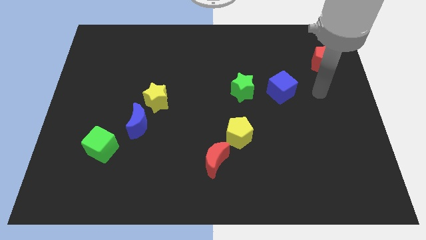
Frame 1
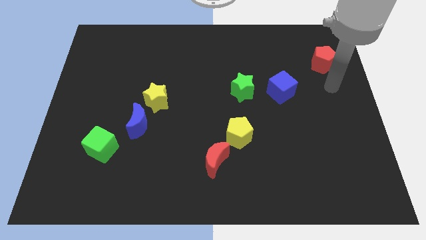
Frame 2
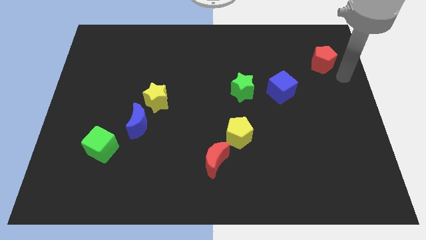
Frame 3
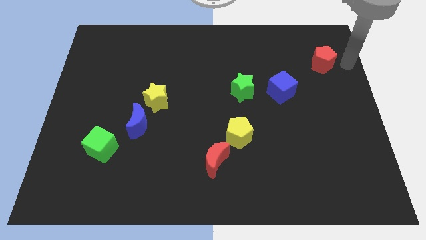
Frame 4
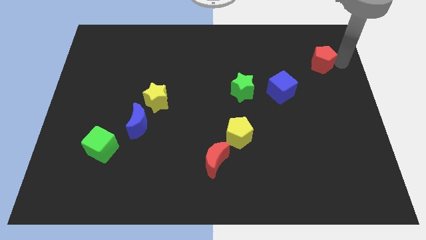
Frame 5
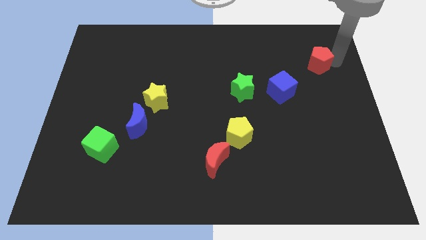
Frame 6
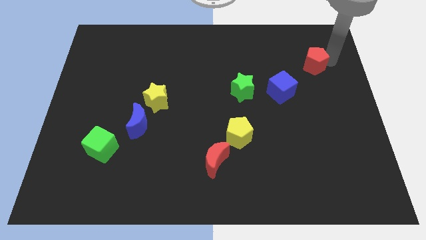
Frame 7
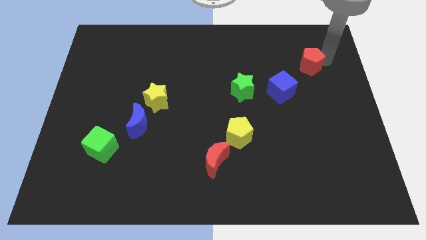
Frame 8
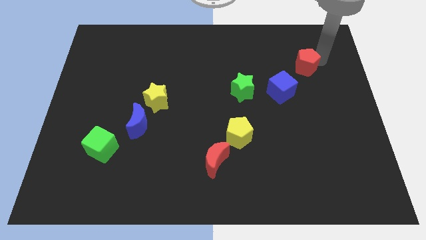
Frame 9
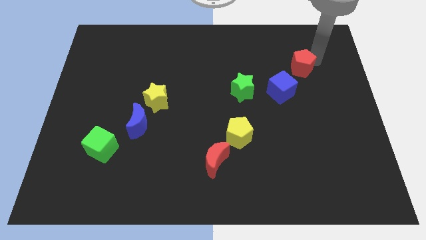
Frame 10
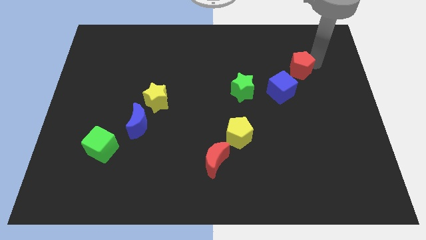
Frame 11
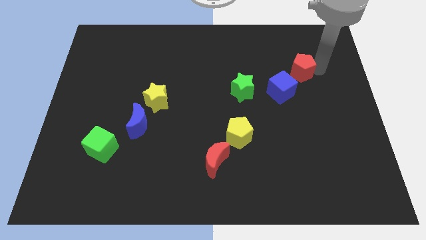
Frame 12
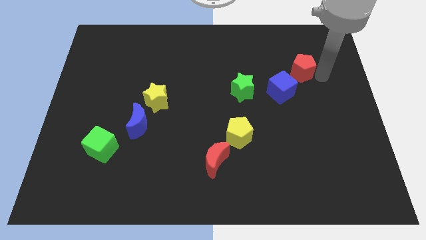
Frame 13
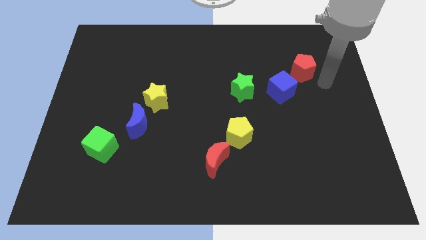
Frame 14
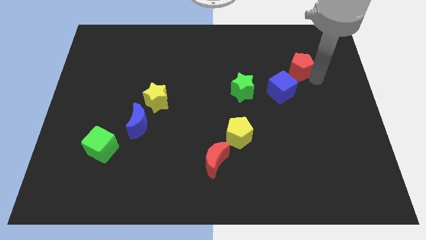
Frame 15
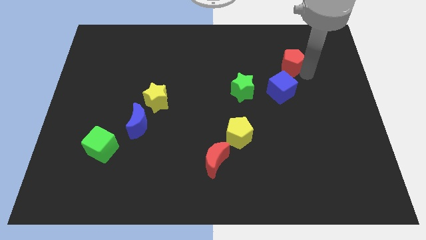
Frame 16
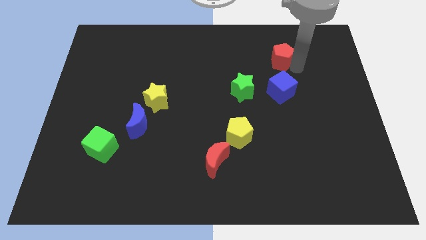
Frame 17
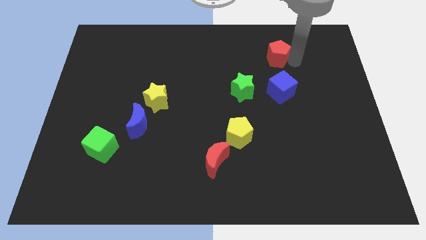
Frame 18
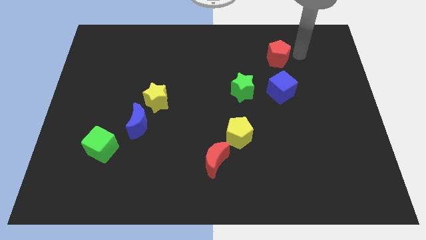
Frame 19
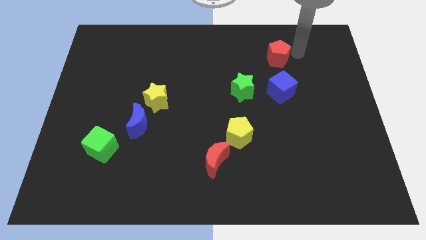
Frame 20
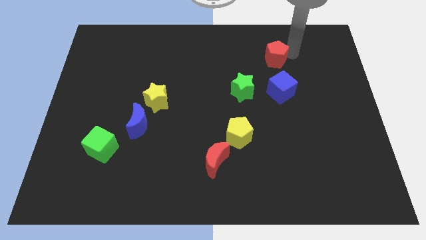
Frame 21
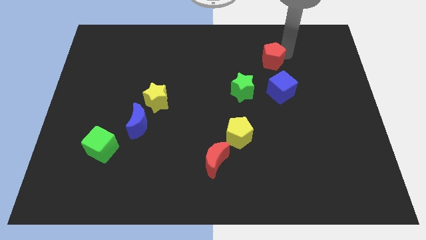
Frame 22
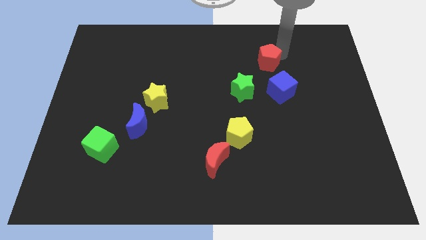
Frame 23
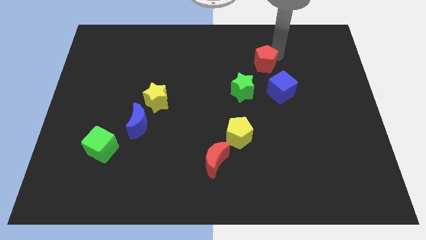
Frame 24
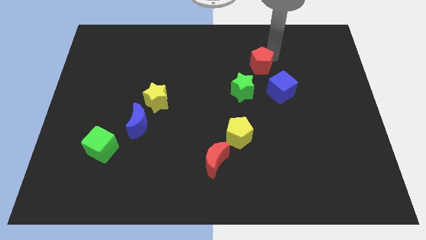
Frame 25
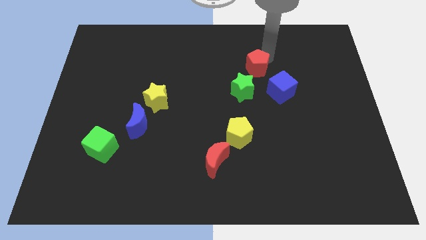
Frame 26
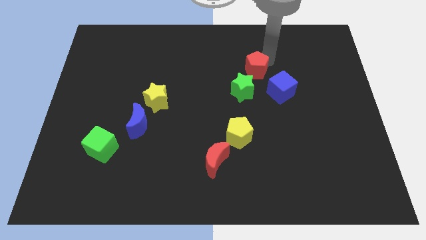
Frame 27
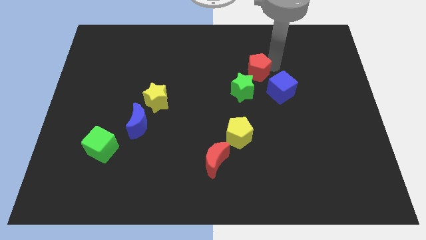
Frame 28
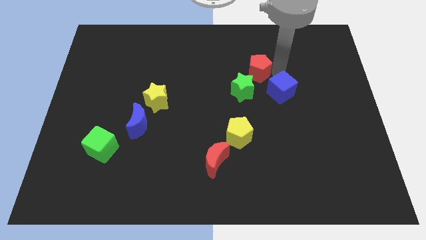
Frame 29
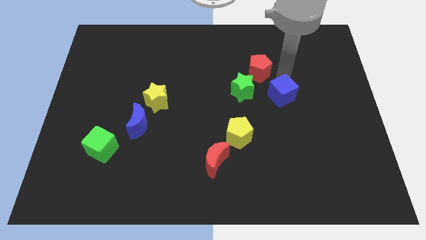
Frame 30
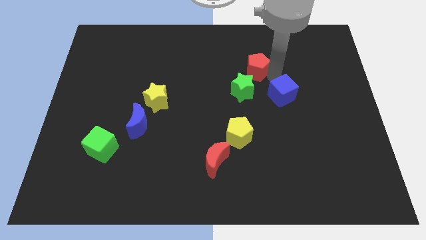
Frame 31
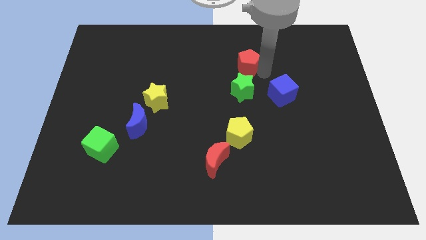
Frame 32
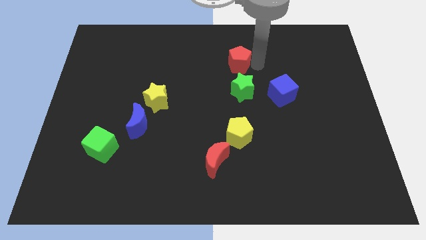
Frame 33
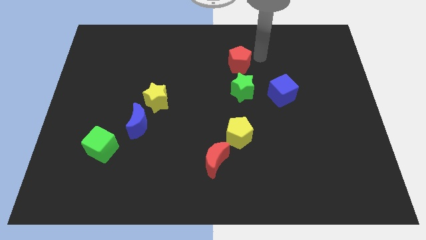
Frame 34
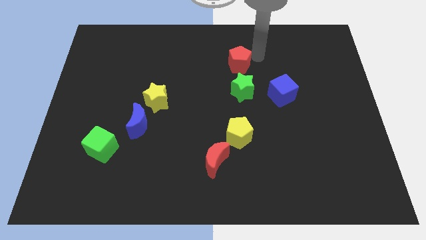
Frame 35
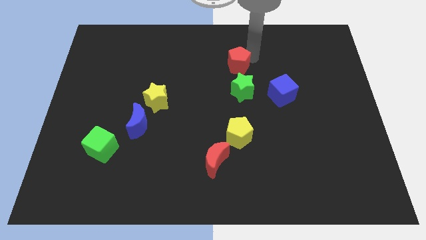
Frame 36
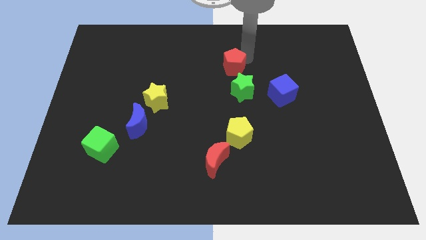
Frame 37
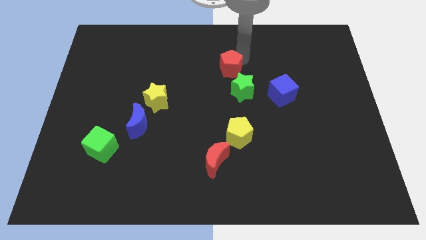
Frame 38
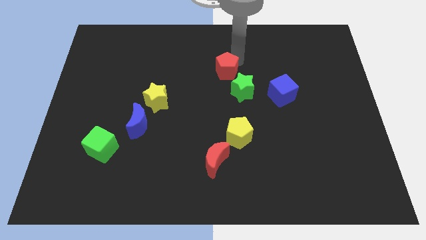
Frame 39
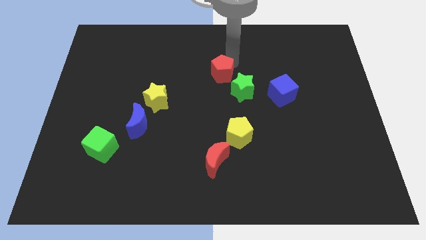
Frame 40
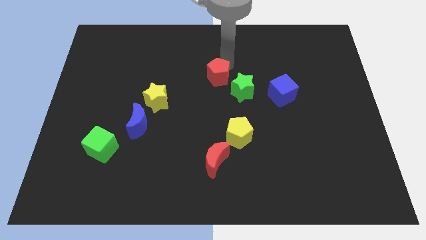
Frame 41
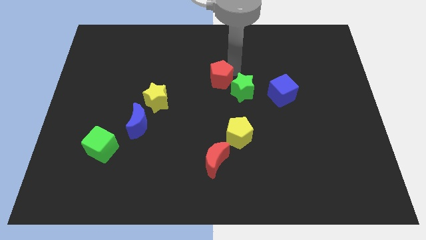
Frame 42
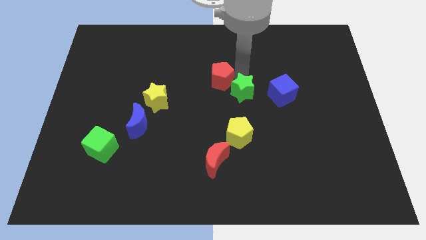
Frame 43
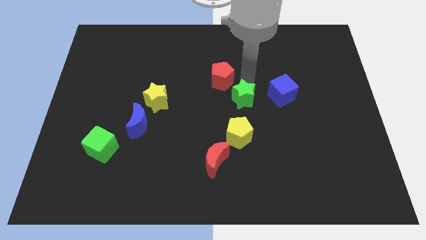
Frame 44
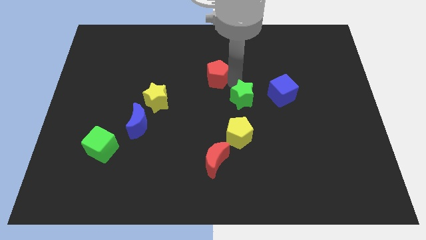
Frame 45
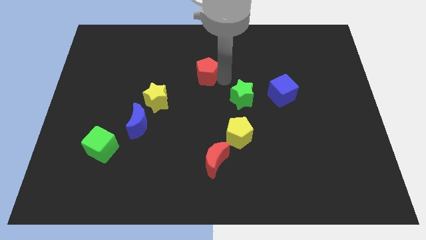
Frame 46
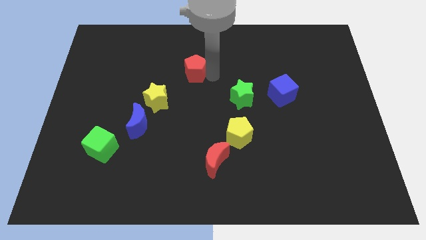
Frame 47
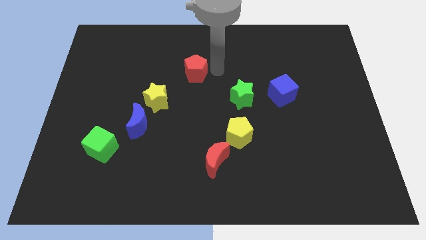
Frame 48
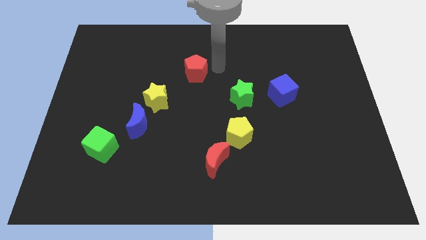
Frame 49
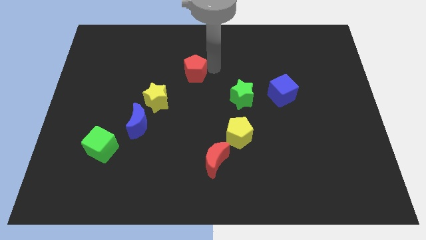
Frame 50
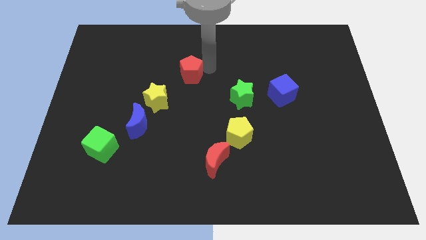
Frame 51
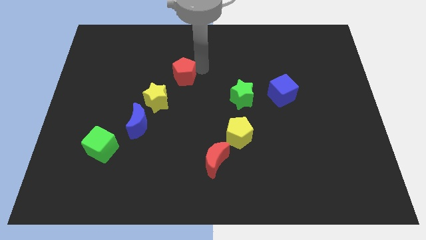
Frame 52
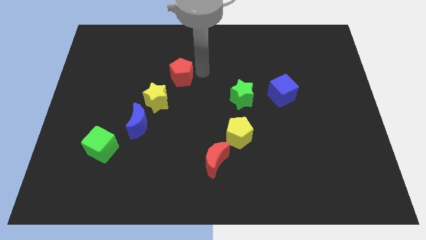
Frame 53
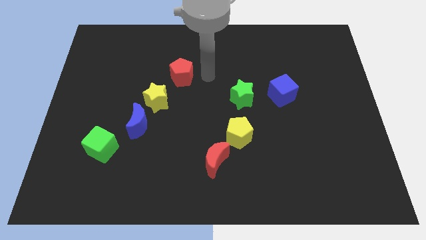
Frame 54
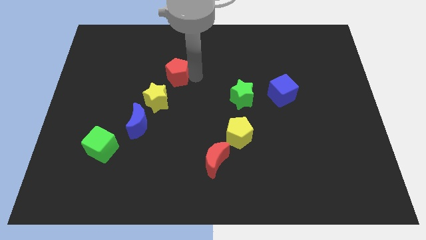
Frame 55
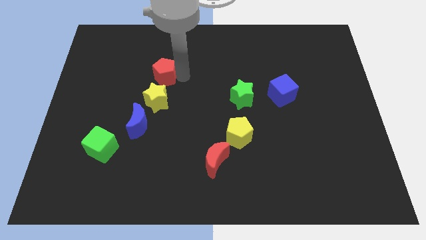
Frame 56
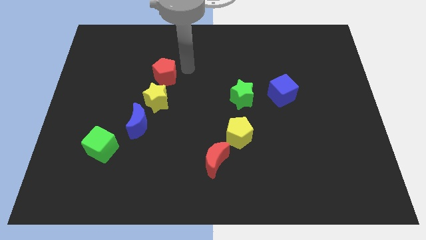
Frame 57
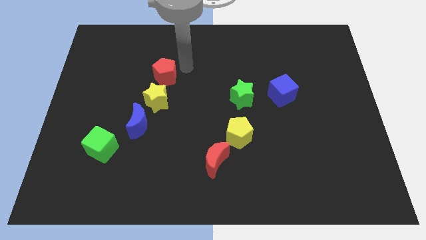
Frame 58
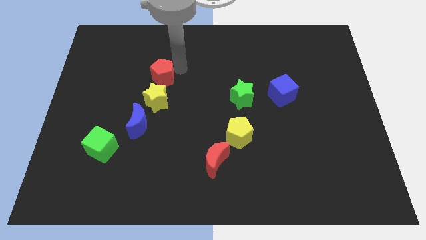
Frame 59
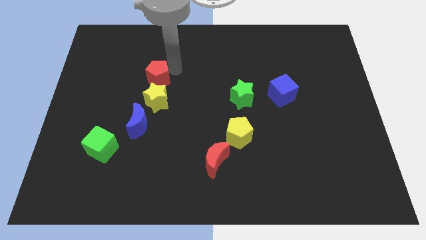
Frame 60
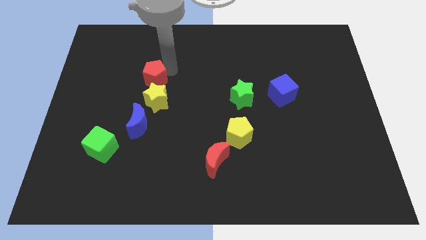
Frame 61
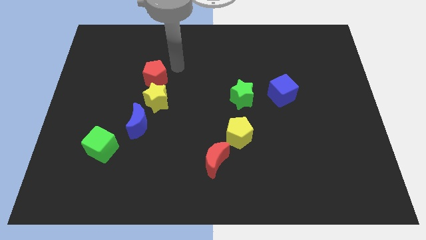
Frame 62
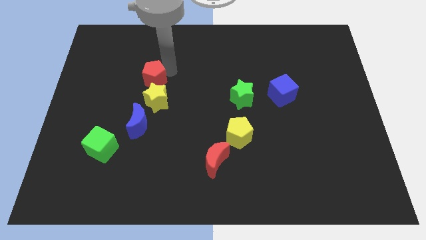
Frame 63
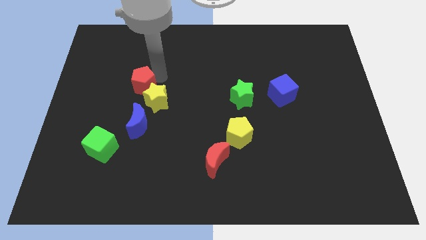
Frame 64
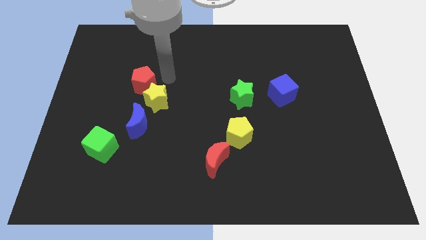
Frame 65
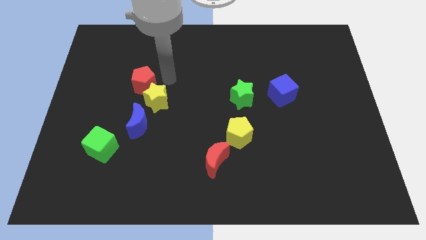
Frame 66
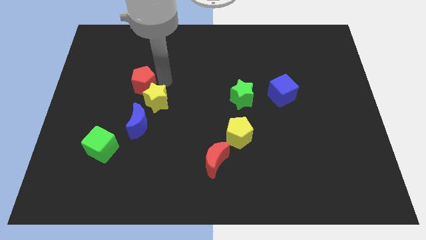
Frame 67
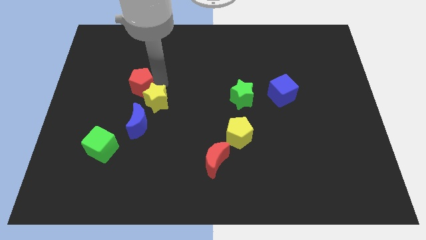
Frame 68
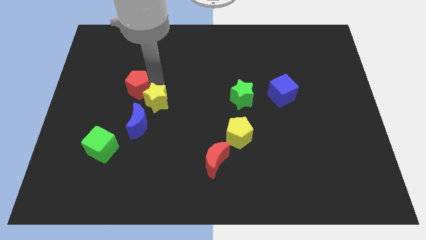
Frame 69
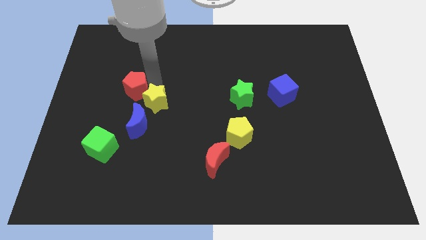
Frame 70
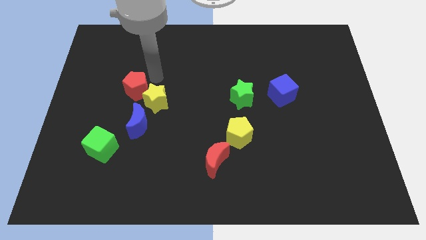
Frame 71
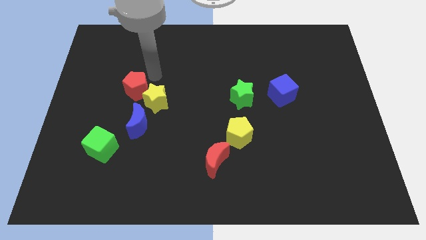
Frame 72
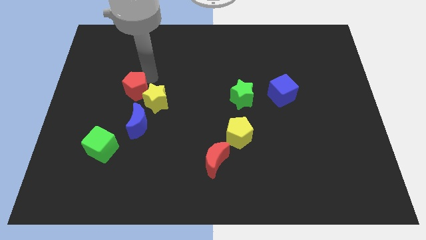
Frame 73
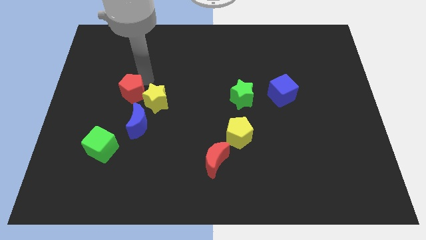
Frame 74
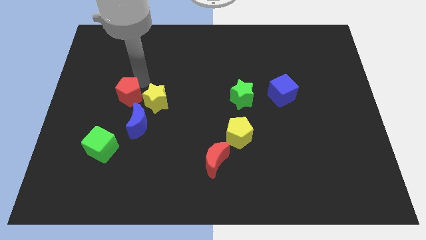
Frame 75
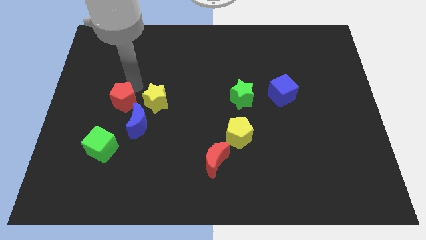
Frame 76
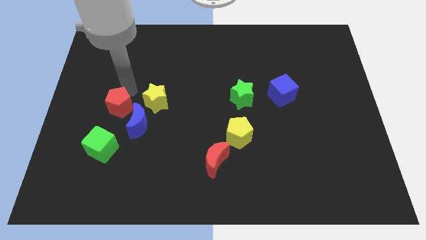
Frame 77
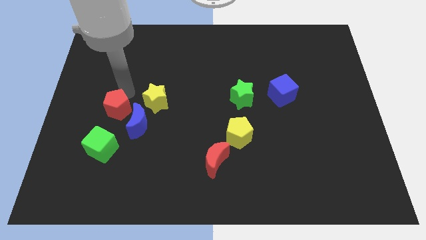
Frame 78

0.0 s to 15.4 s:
push the red pentagon left of the blue moon
